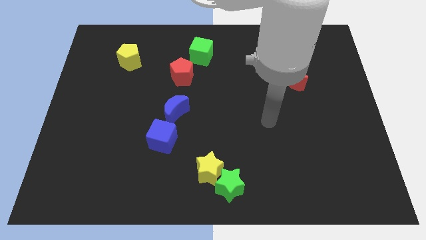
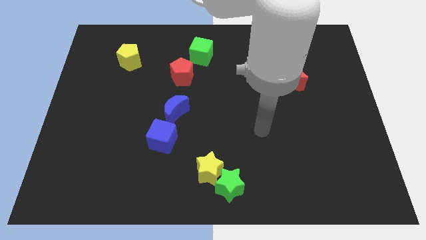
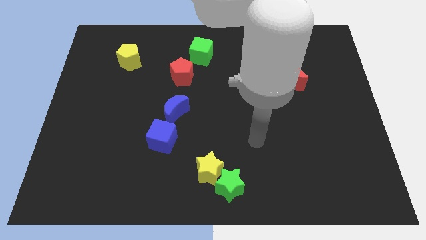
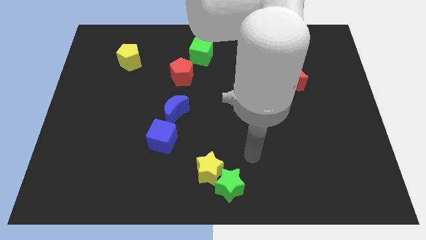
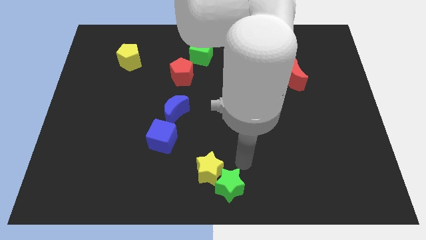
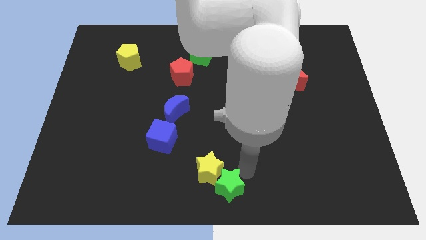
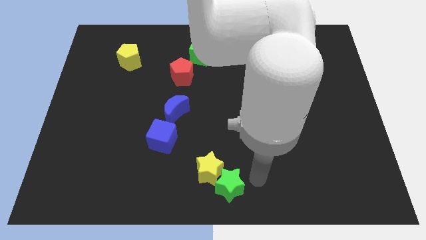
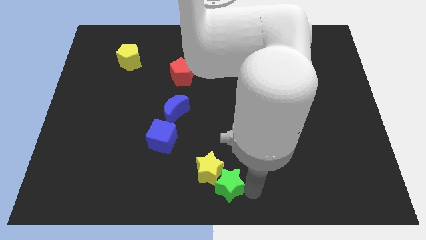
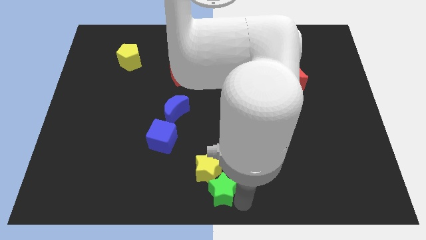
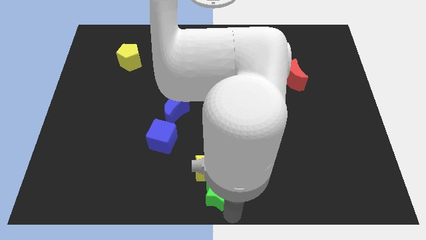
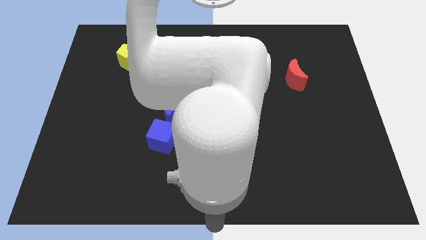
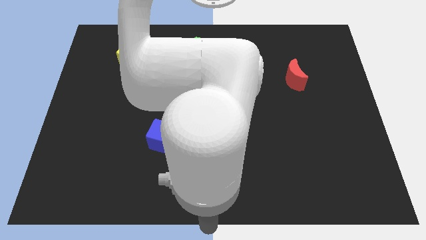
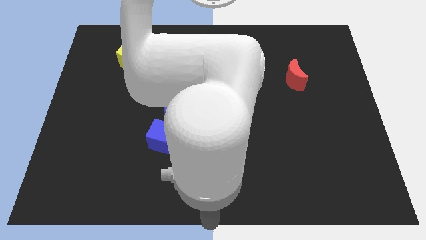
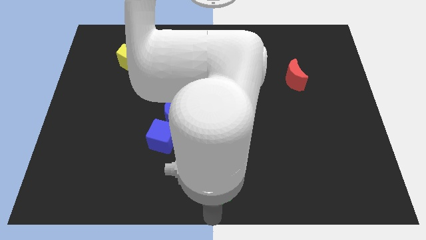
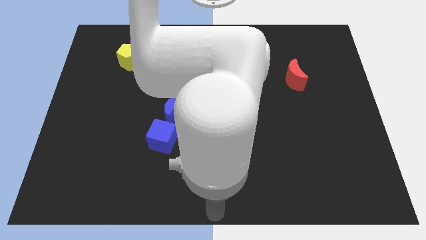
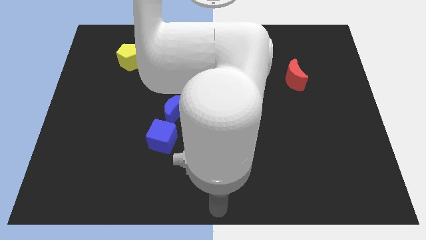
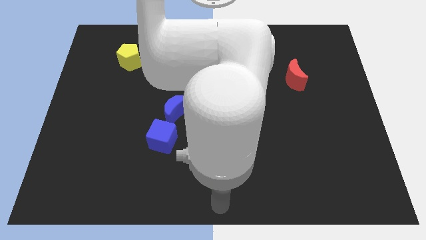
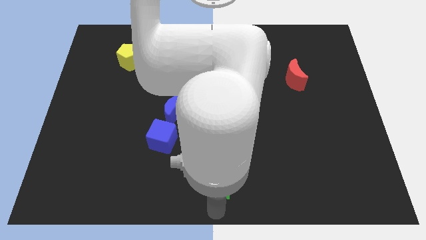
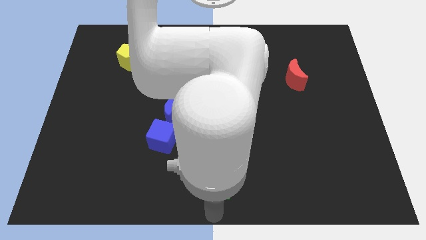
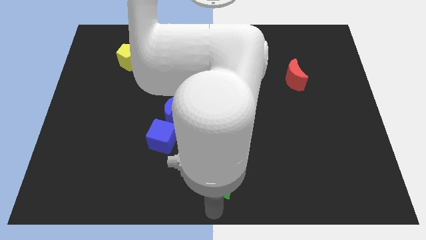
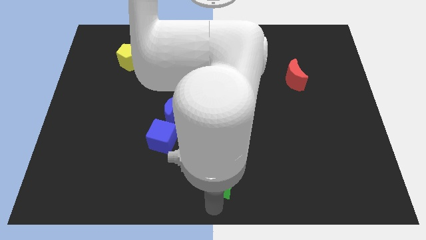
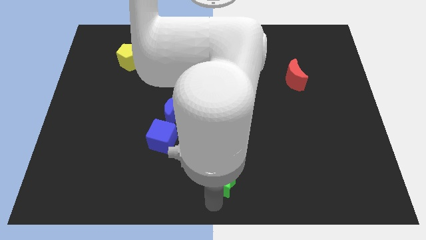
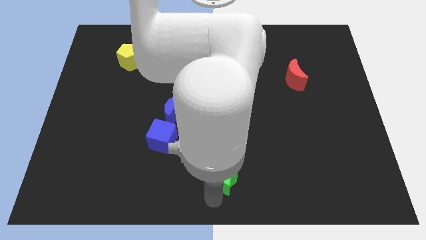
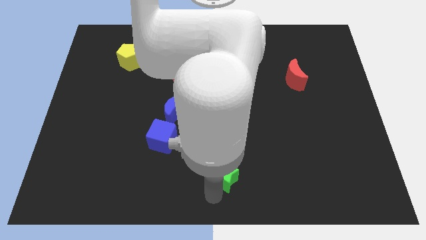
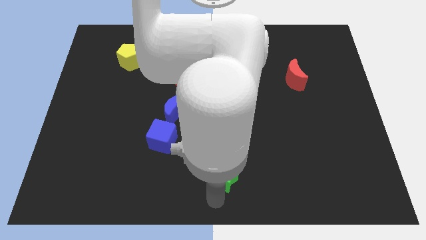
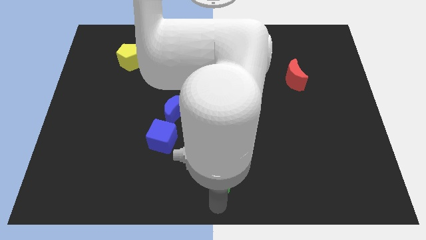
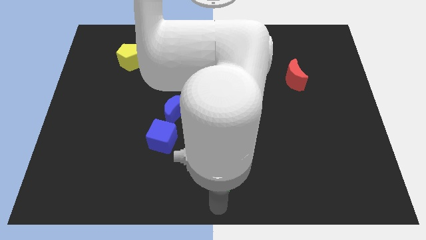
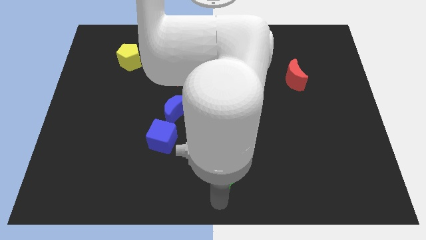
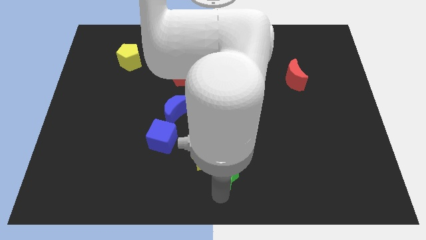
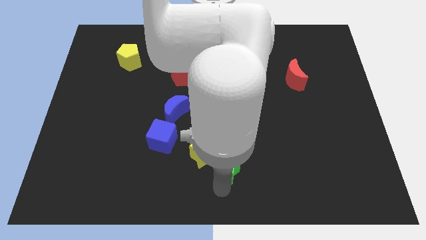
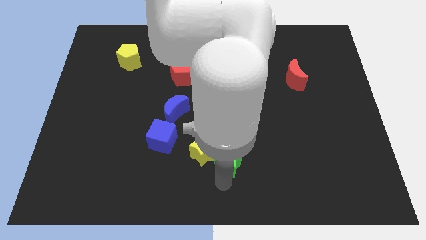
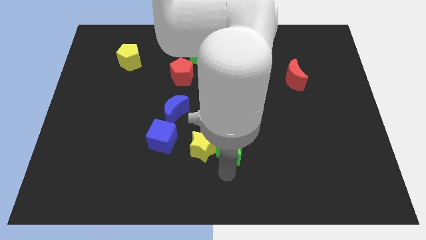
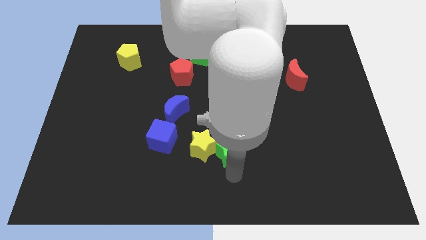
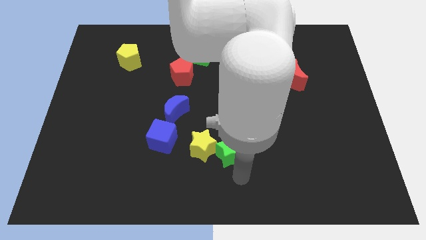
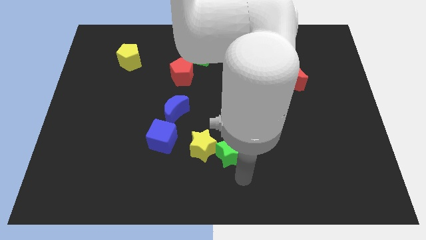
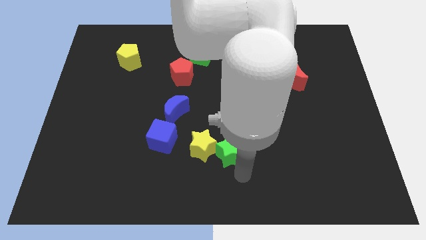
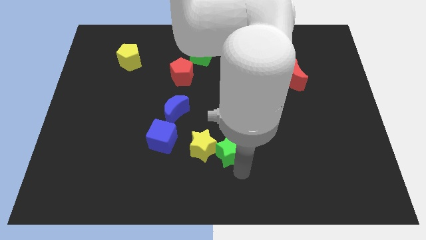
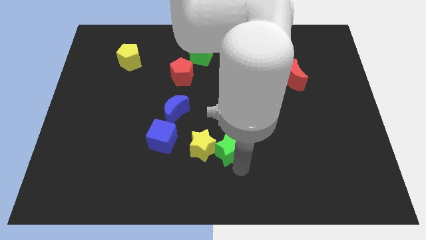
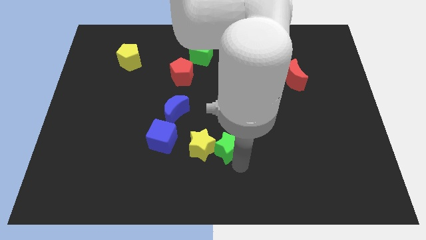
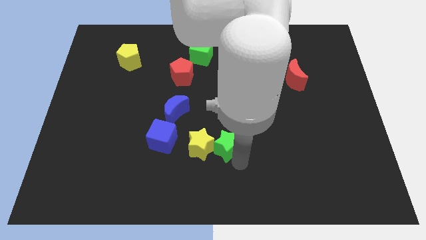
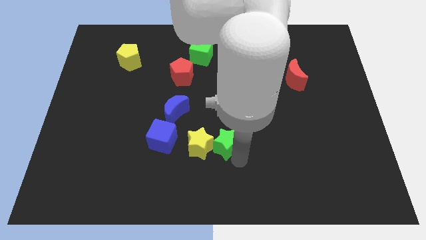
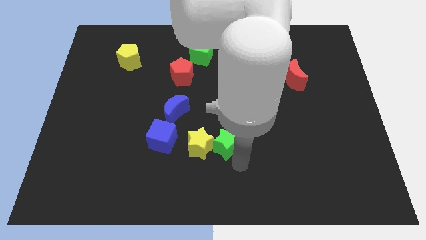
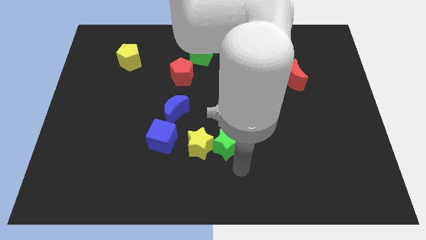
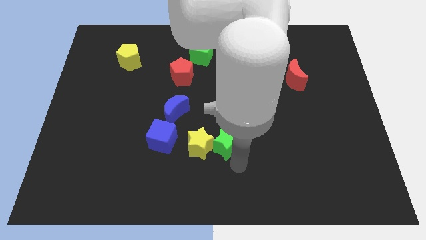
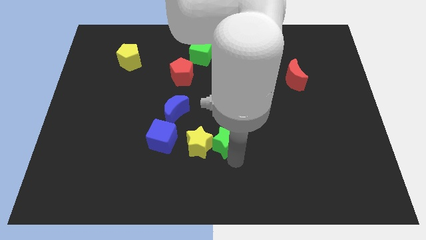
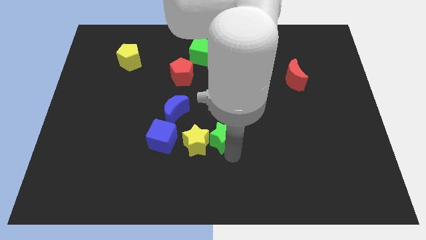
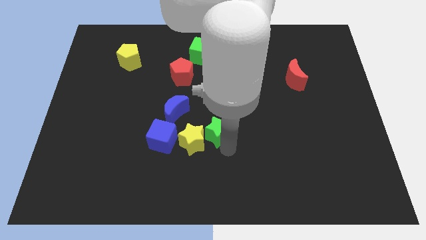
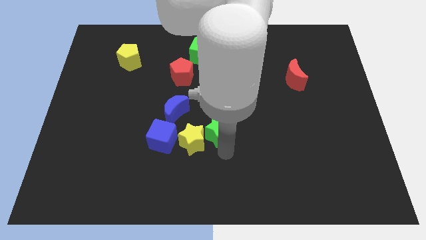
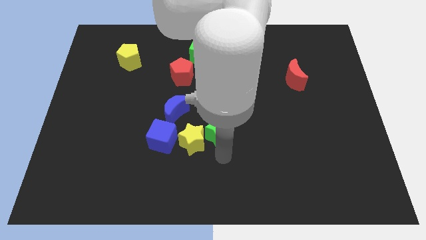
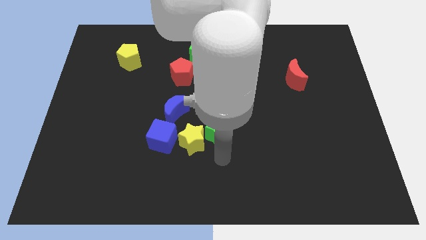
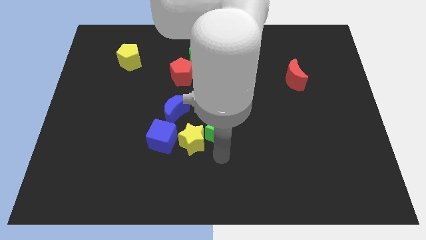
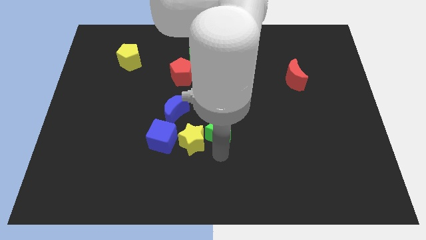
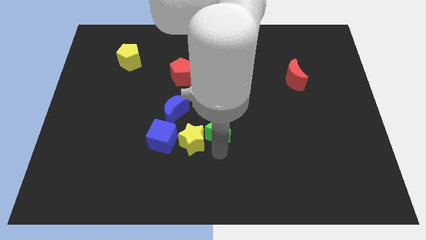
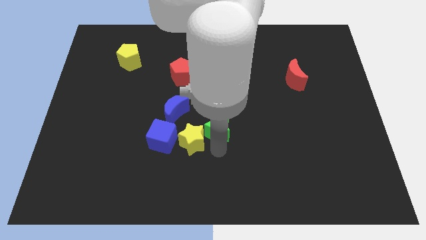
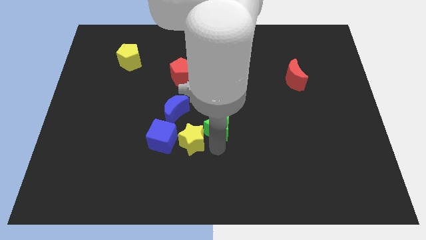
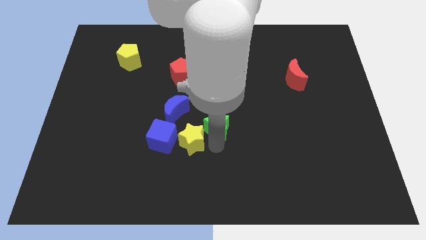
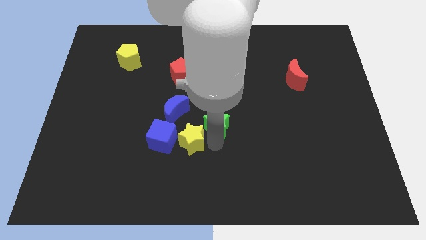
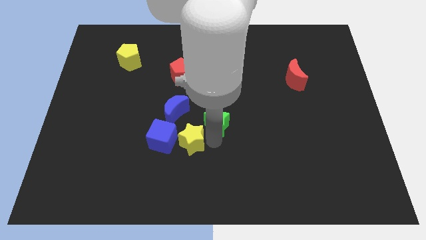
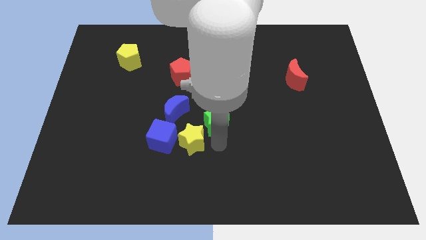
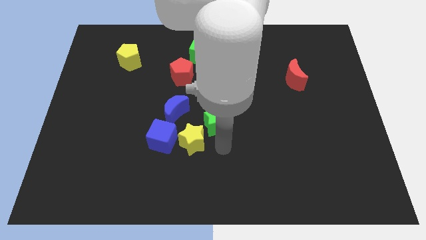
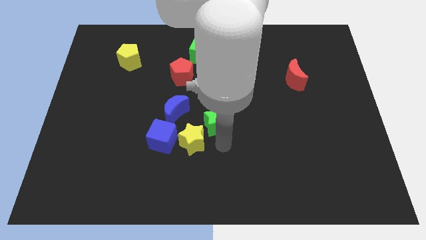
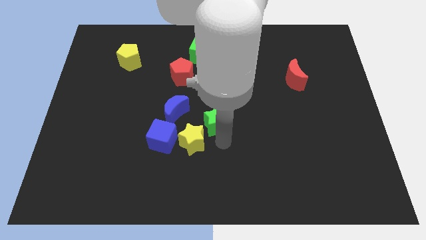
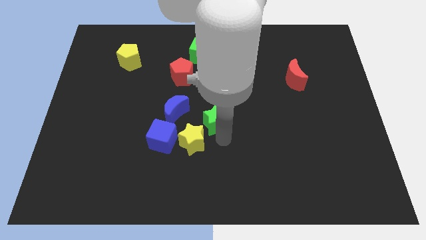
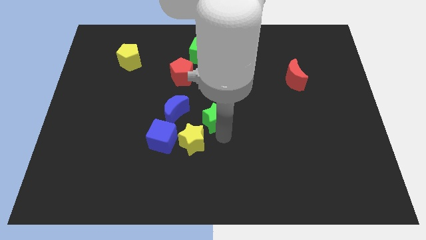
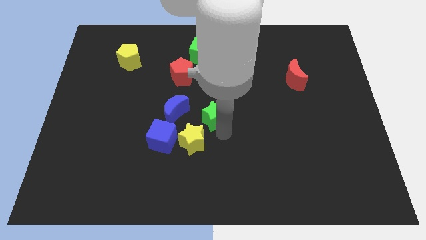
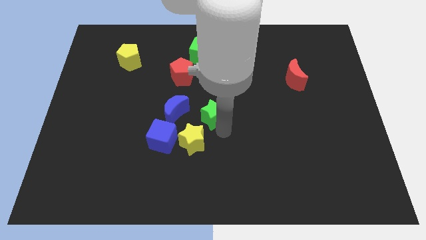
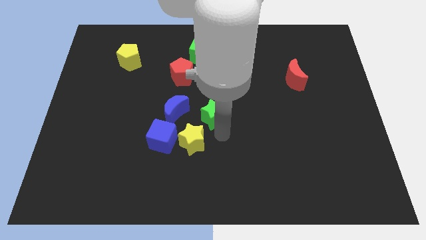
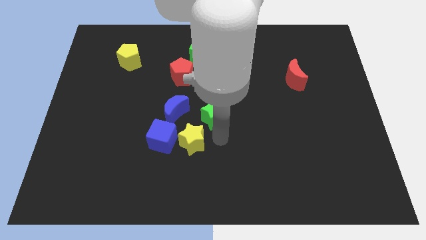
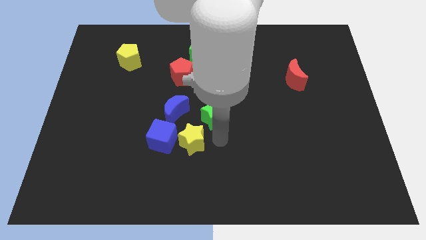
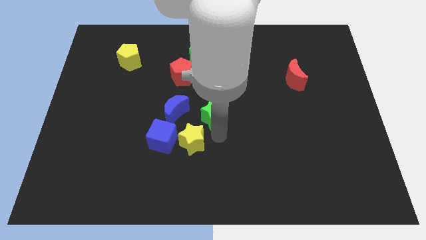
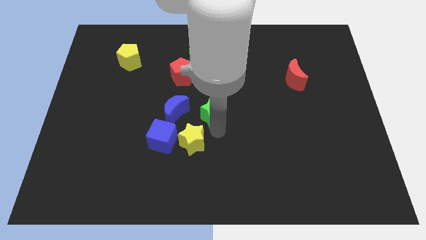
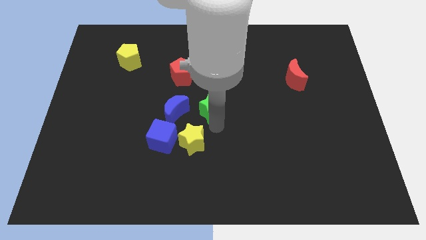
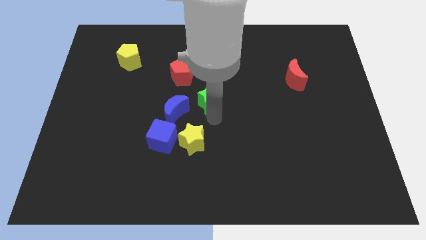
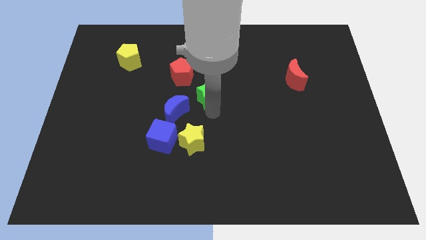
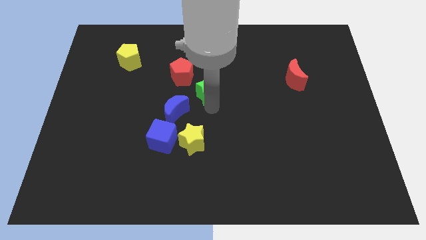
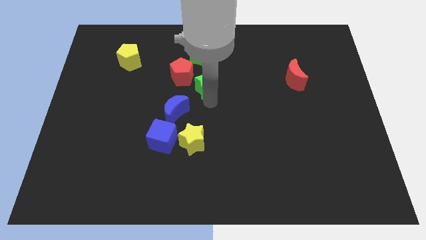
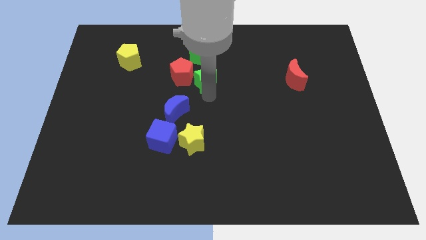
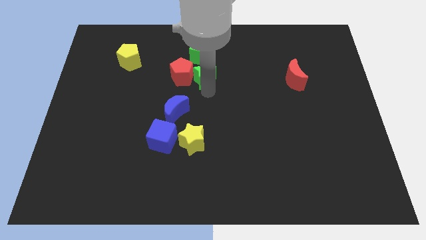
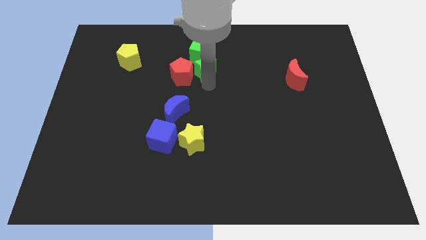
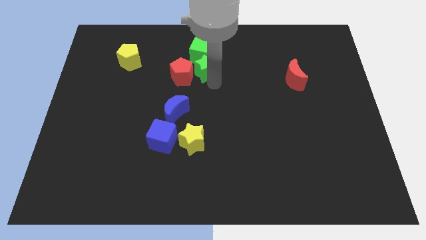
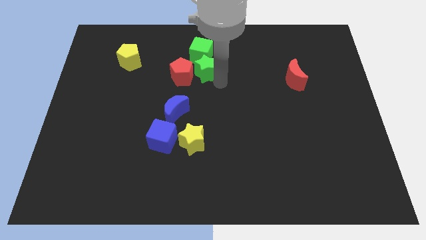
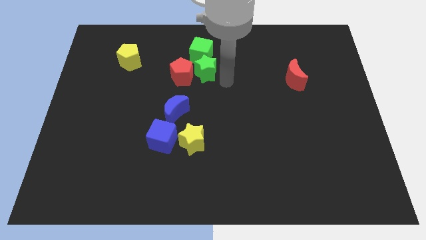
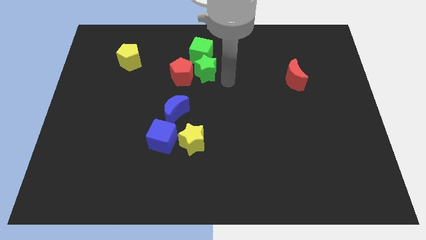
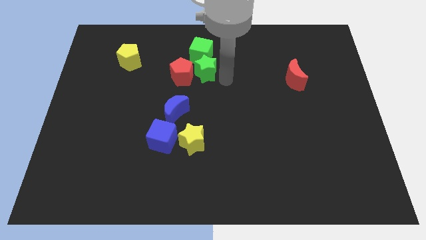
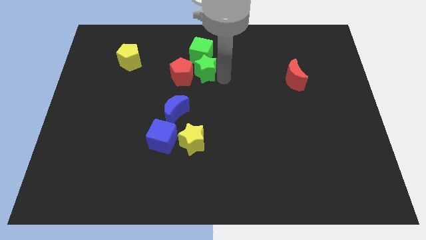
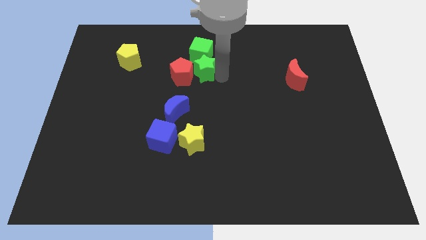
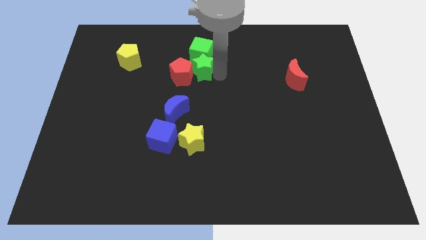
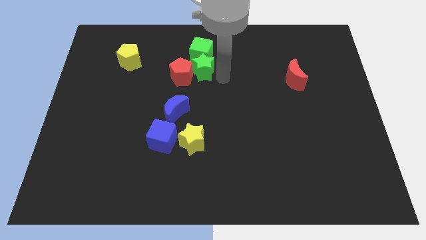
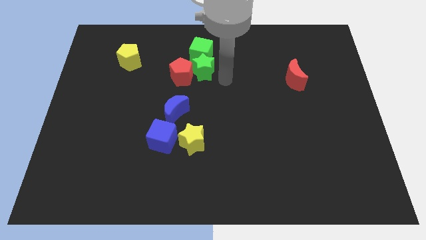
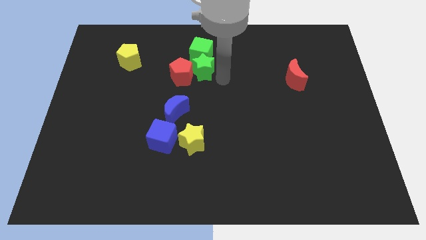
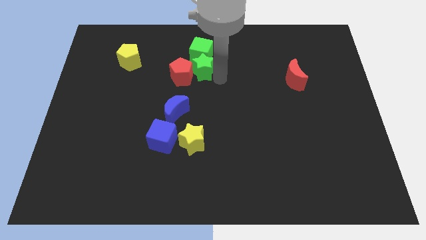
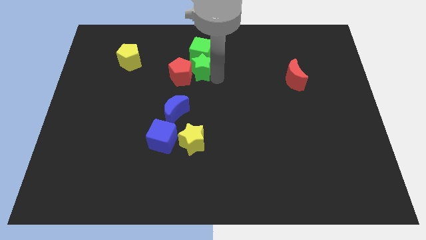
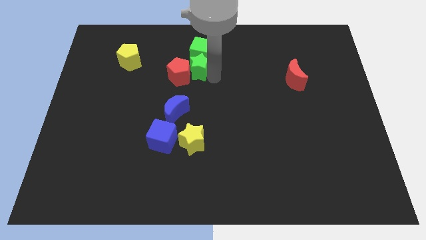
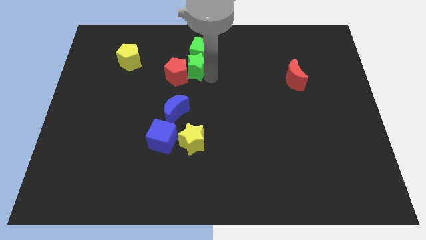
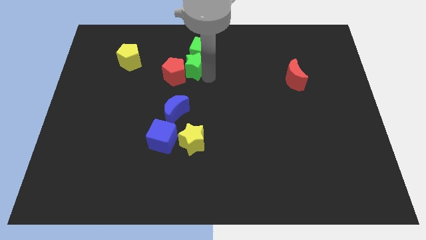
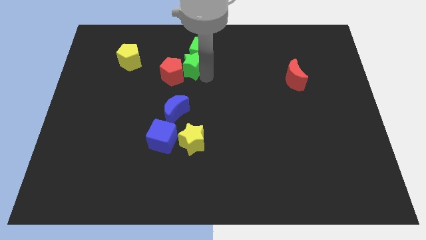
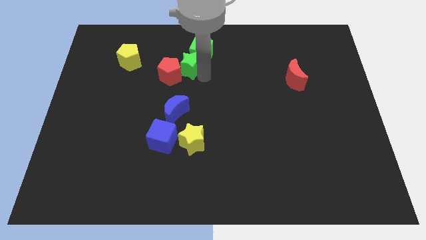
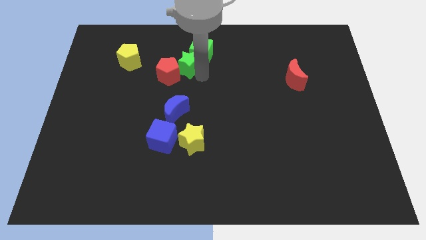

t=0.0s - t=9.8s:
slide the green star just right of the yellow pentagon
